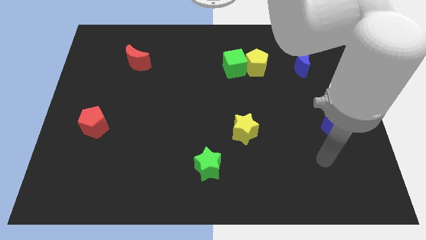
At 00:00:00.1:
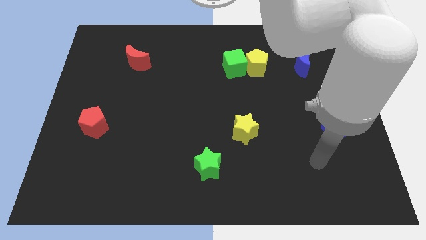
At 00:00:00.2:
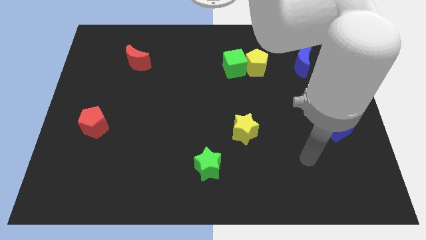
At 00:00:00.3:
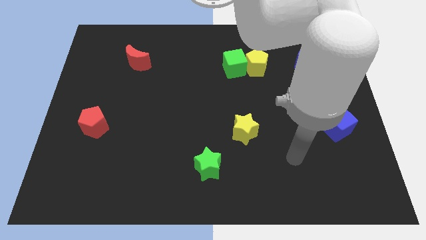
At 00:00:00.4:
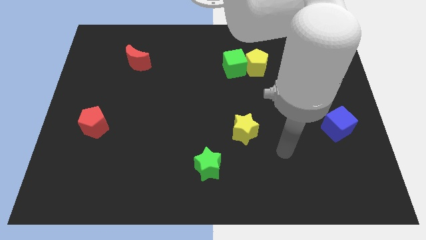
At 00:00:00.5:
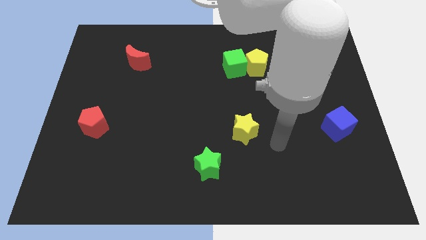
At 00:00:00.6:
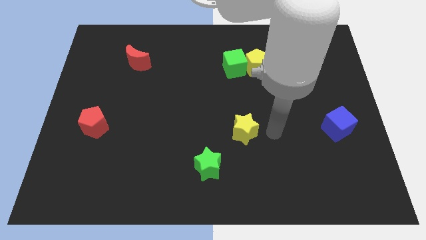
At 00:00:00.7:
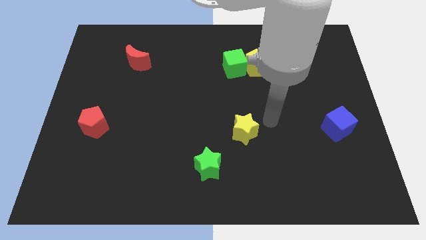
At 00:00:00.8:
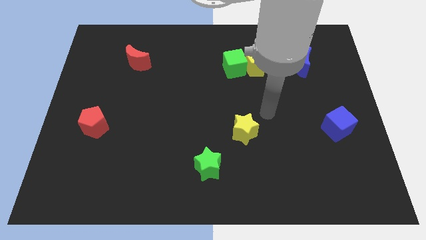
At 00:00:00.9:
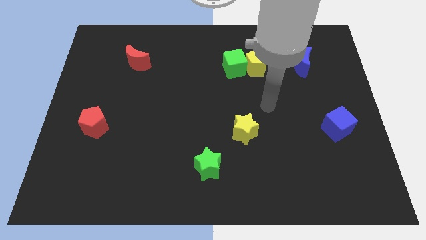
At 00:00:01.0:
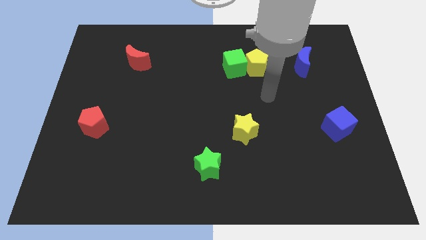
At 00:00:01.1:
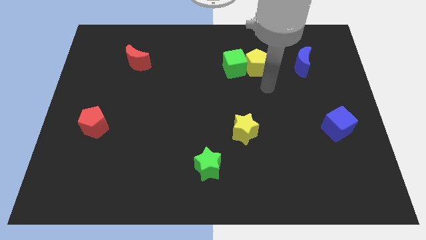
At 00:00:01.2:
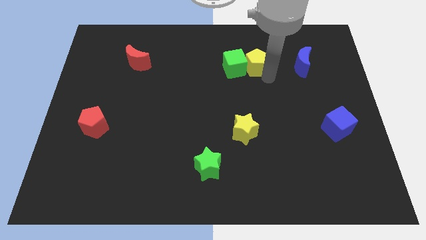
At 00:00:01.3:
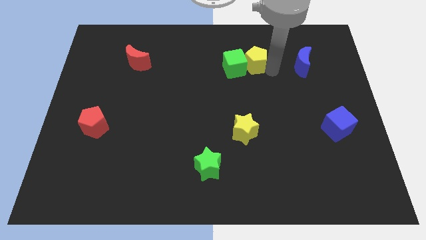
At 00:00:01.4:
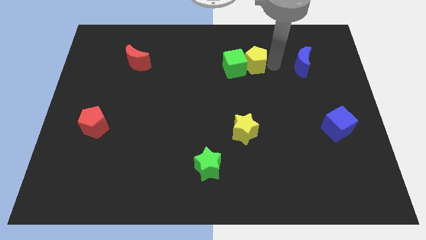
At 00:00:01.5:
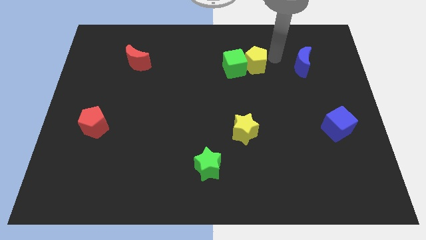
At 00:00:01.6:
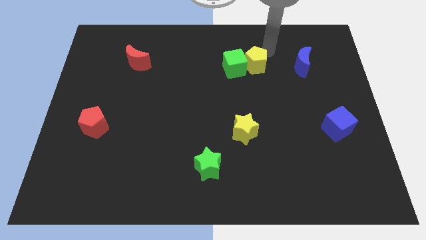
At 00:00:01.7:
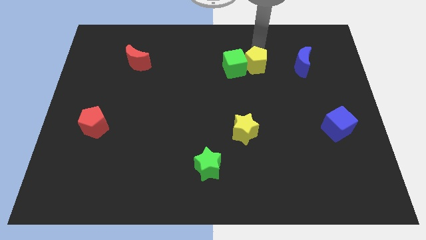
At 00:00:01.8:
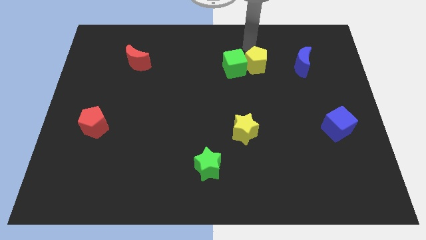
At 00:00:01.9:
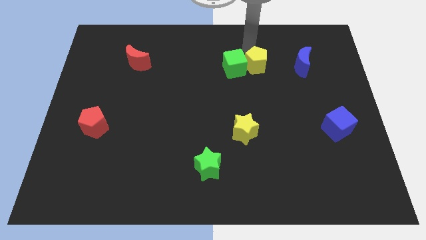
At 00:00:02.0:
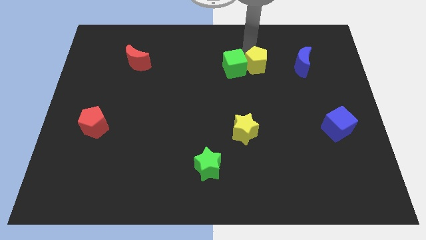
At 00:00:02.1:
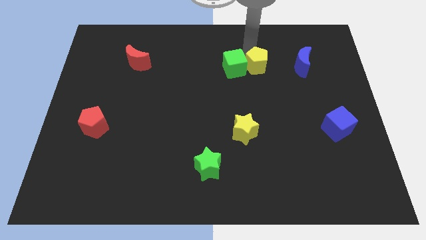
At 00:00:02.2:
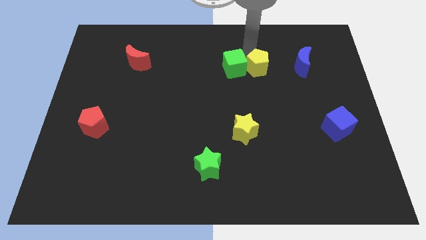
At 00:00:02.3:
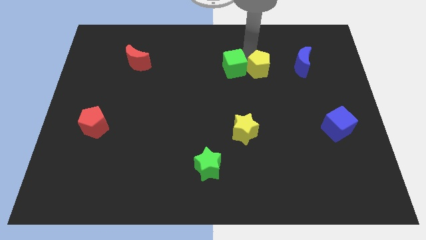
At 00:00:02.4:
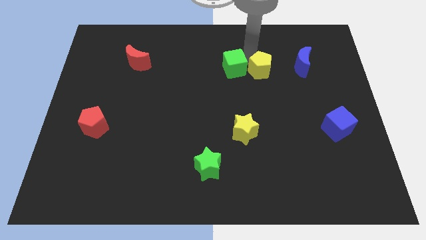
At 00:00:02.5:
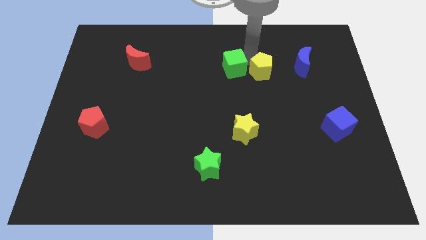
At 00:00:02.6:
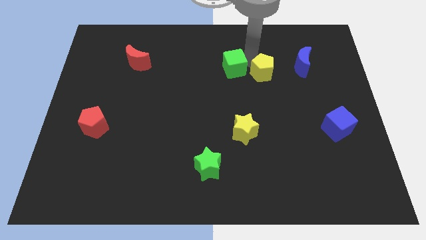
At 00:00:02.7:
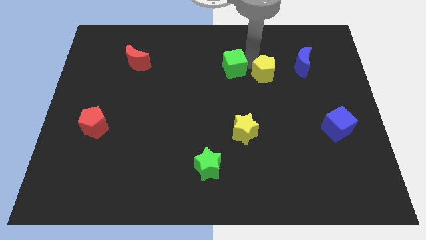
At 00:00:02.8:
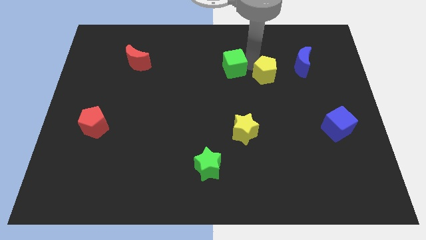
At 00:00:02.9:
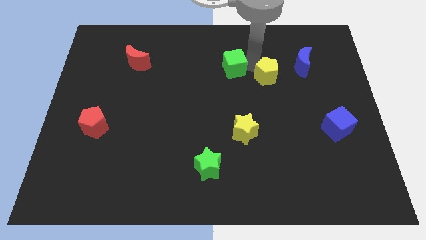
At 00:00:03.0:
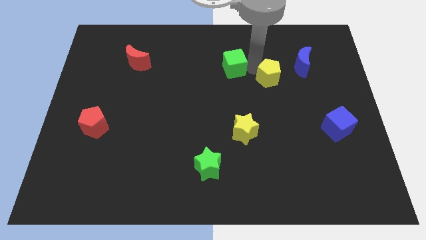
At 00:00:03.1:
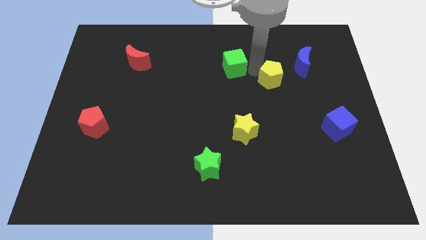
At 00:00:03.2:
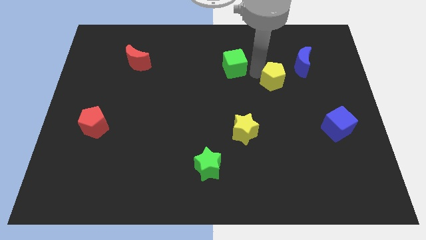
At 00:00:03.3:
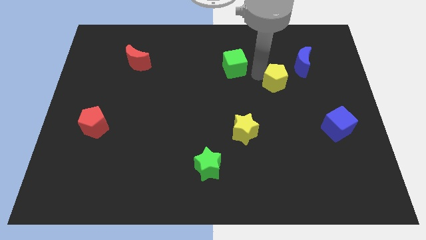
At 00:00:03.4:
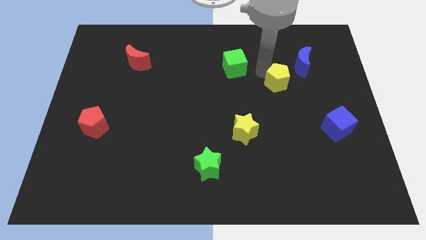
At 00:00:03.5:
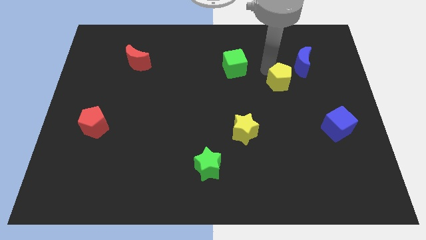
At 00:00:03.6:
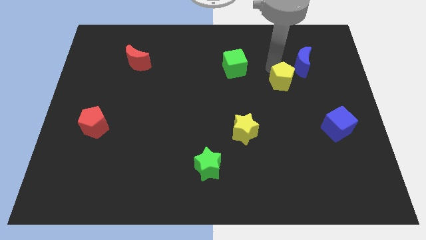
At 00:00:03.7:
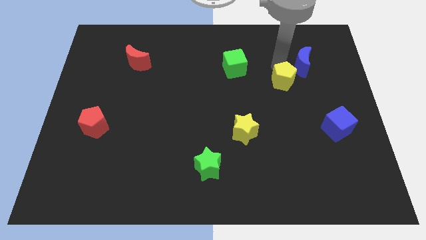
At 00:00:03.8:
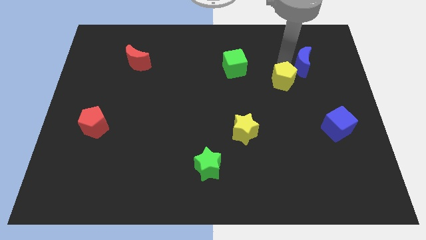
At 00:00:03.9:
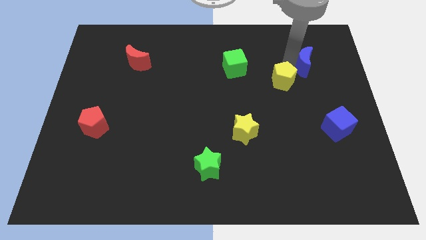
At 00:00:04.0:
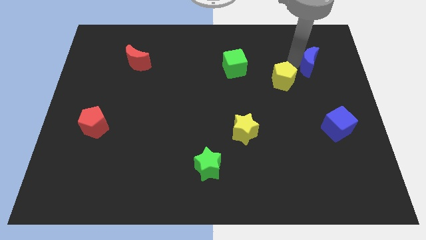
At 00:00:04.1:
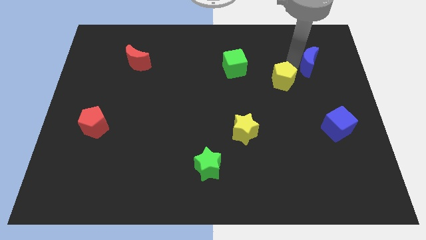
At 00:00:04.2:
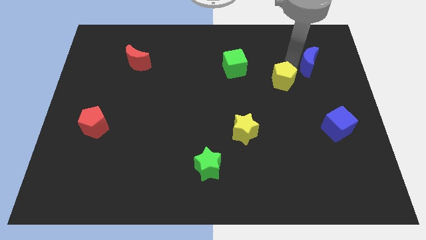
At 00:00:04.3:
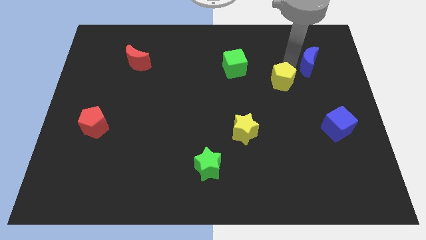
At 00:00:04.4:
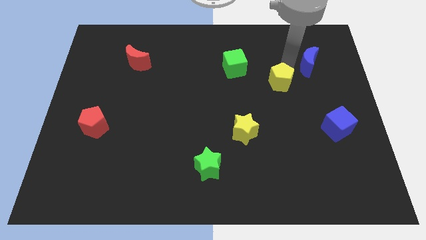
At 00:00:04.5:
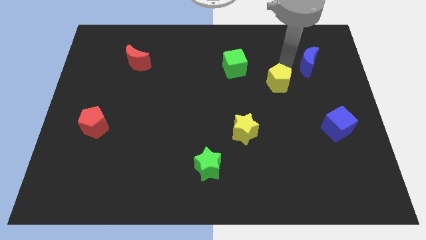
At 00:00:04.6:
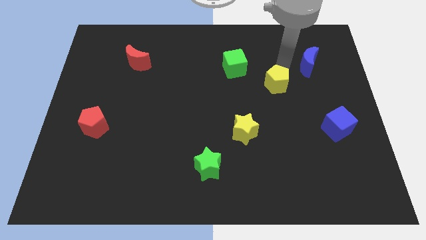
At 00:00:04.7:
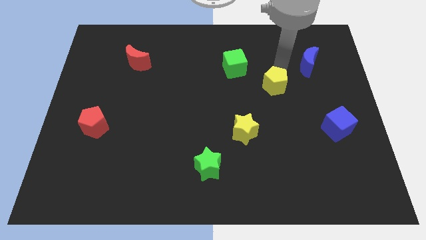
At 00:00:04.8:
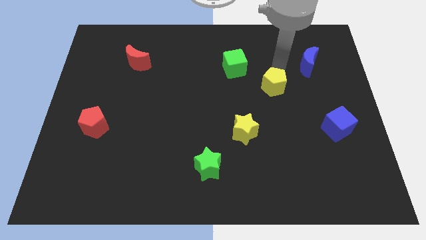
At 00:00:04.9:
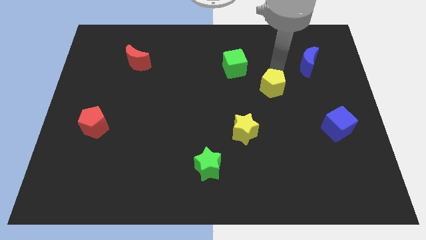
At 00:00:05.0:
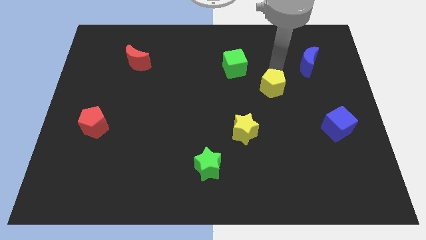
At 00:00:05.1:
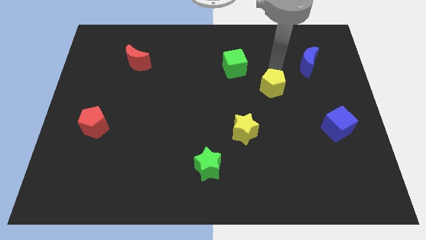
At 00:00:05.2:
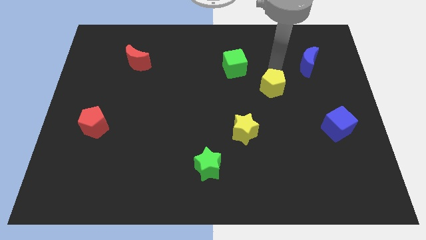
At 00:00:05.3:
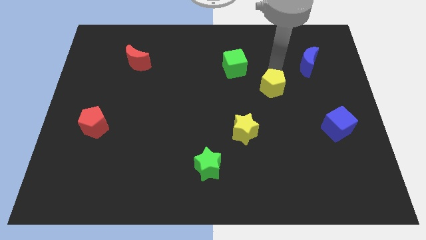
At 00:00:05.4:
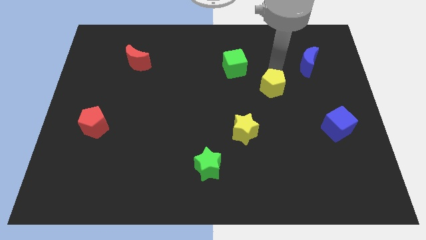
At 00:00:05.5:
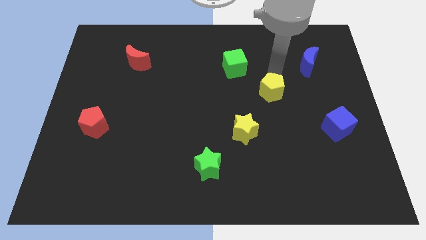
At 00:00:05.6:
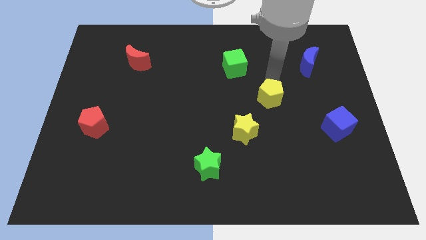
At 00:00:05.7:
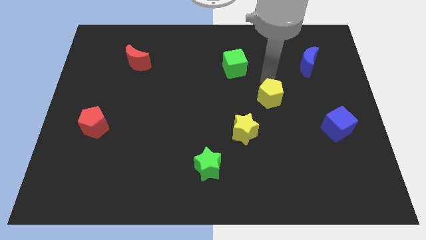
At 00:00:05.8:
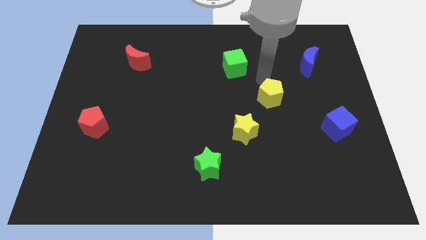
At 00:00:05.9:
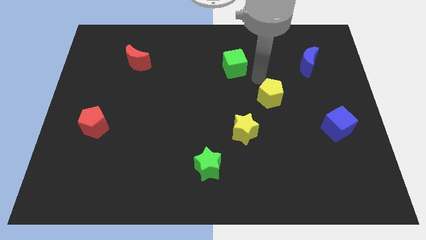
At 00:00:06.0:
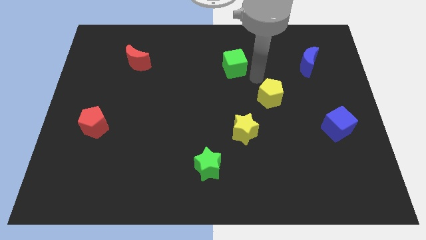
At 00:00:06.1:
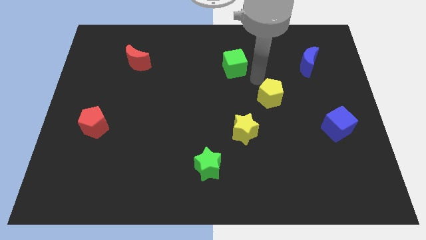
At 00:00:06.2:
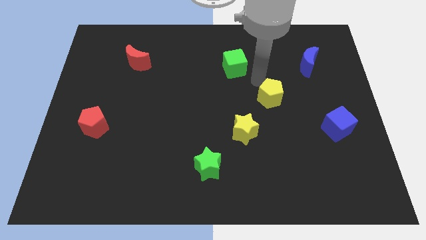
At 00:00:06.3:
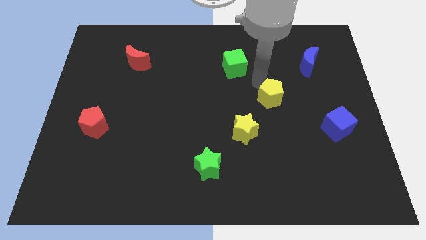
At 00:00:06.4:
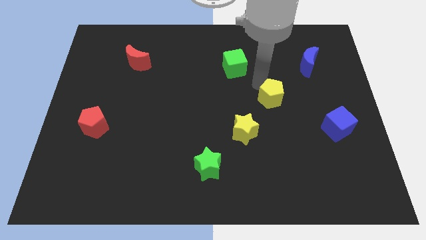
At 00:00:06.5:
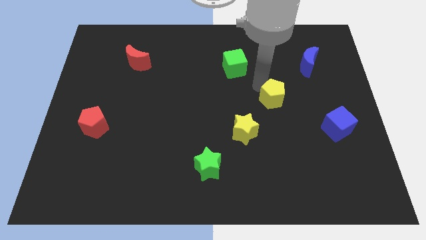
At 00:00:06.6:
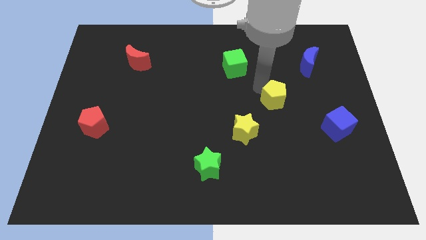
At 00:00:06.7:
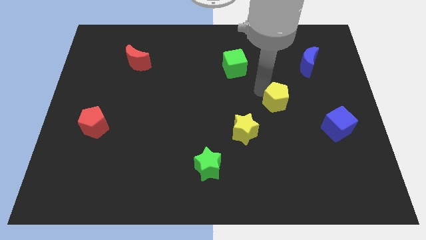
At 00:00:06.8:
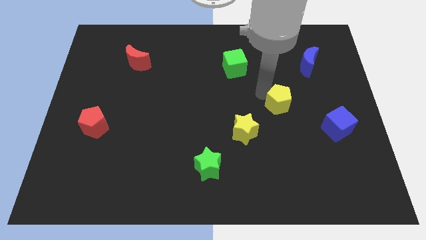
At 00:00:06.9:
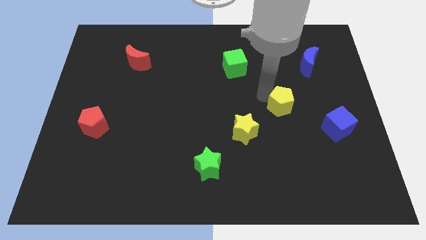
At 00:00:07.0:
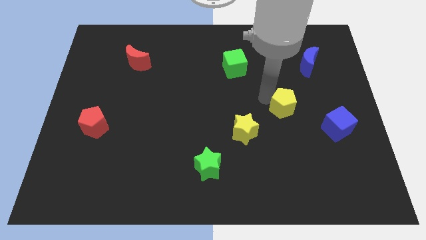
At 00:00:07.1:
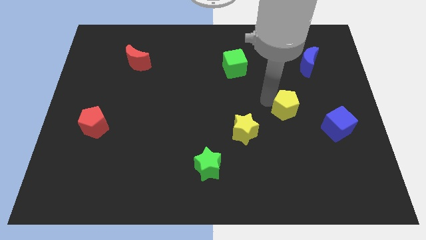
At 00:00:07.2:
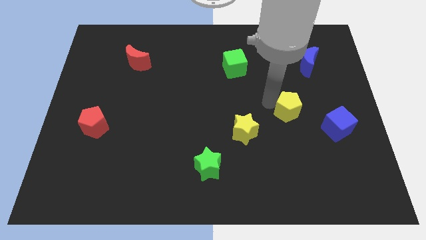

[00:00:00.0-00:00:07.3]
move the yellow pentagon left of the blue cube
